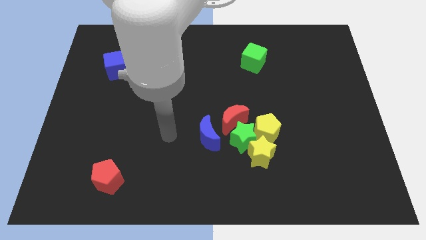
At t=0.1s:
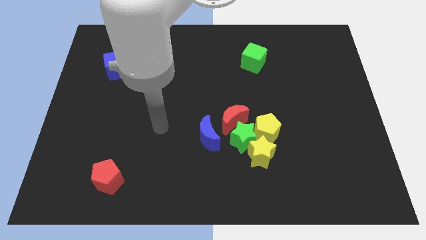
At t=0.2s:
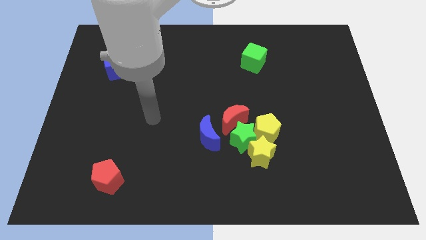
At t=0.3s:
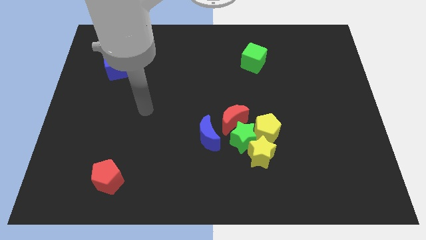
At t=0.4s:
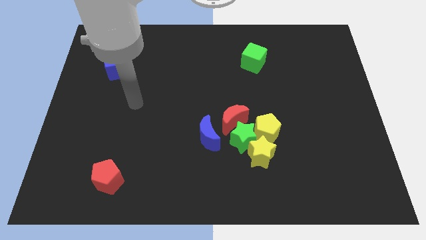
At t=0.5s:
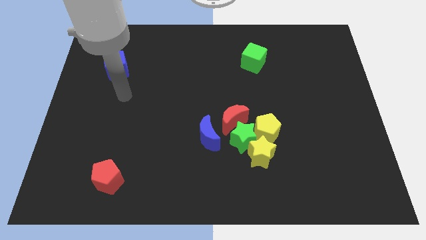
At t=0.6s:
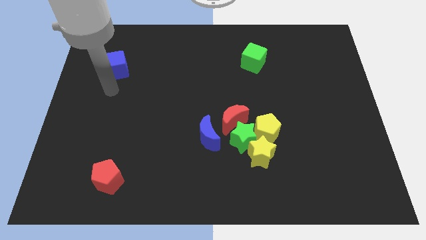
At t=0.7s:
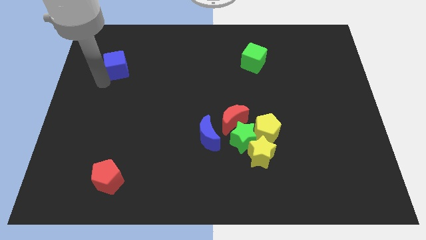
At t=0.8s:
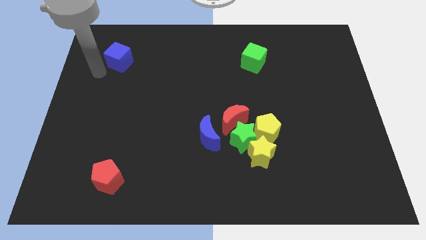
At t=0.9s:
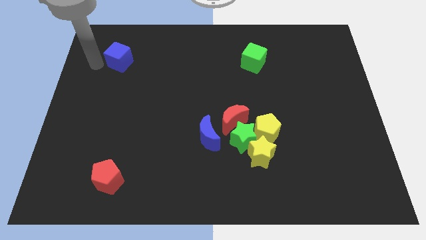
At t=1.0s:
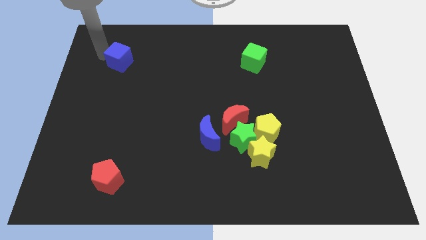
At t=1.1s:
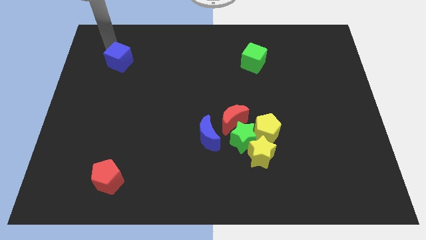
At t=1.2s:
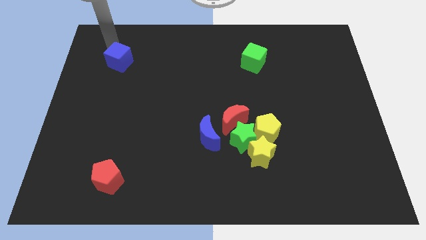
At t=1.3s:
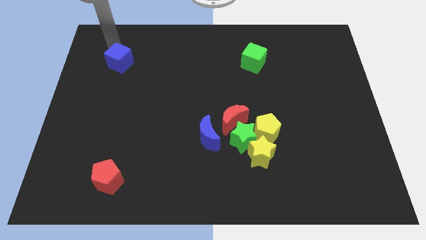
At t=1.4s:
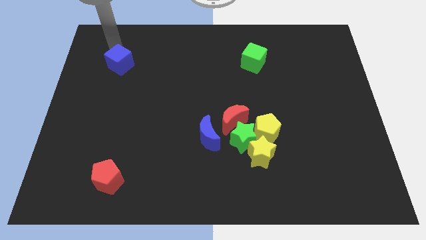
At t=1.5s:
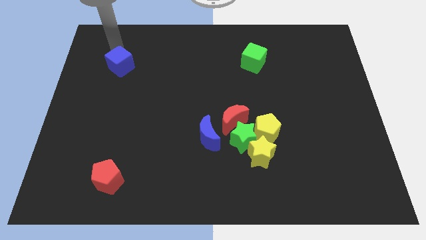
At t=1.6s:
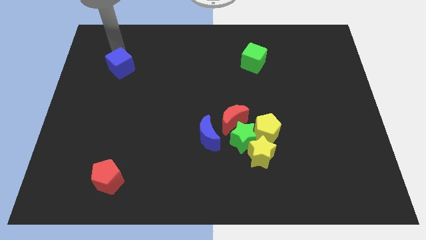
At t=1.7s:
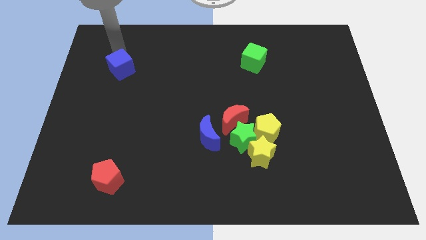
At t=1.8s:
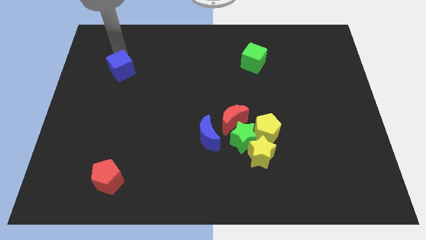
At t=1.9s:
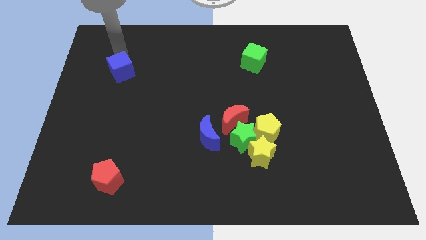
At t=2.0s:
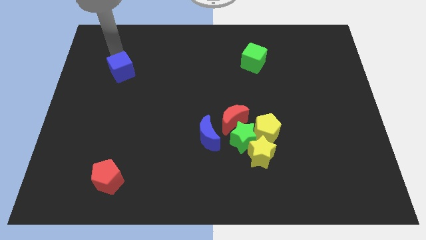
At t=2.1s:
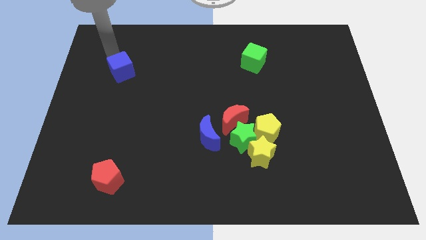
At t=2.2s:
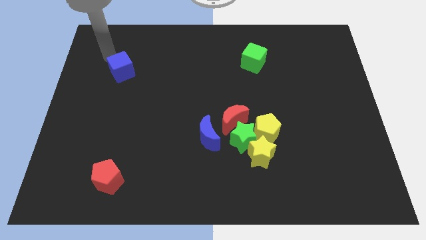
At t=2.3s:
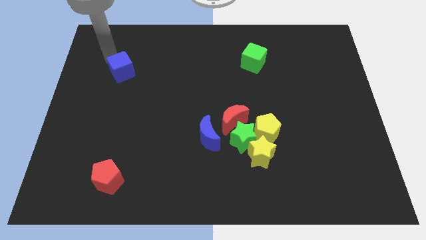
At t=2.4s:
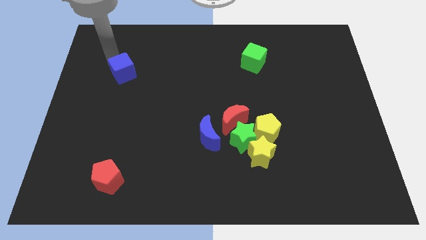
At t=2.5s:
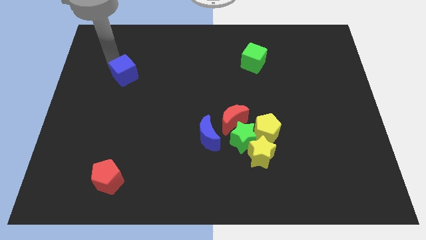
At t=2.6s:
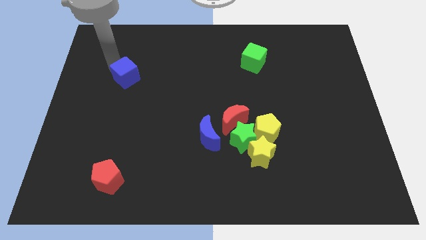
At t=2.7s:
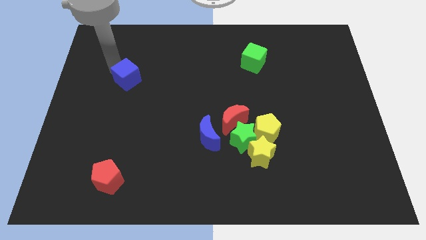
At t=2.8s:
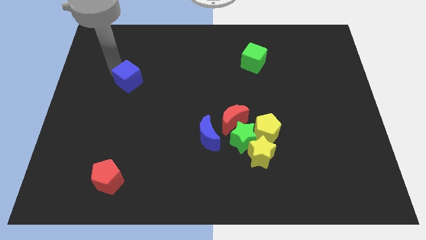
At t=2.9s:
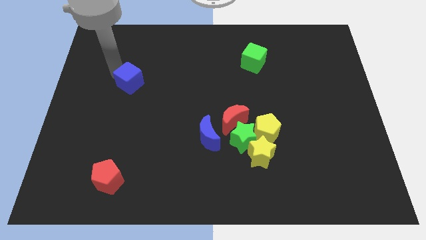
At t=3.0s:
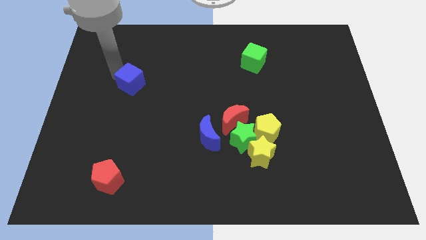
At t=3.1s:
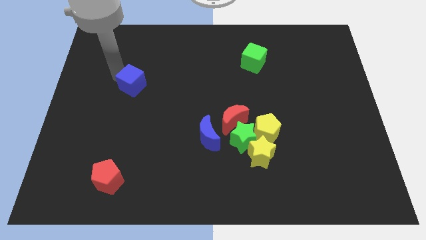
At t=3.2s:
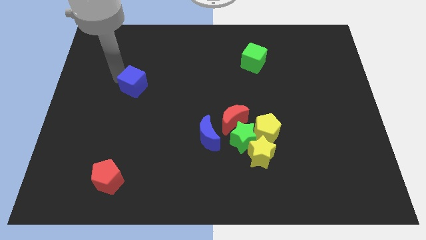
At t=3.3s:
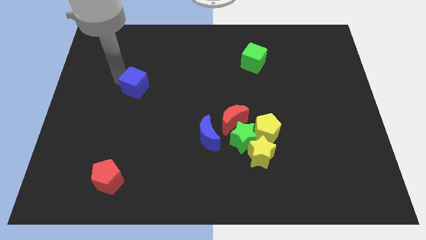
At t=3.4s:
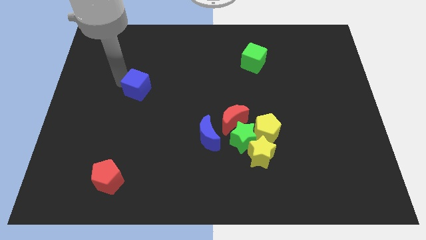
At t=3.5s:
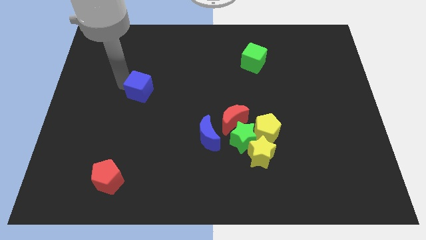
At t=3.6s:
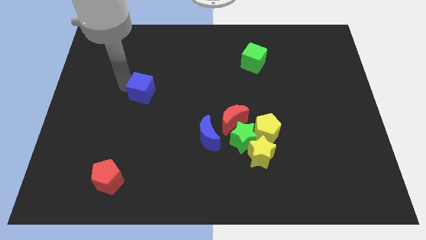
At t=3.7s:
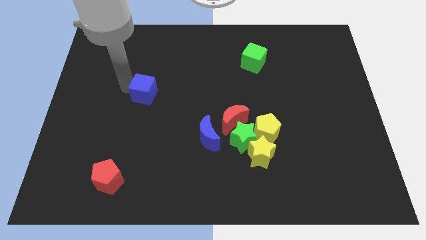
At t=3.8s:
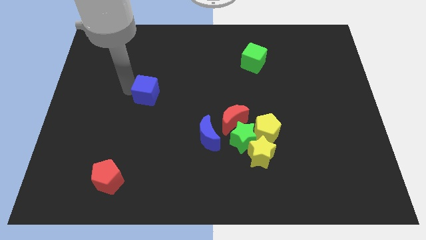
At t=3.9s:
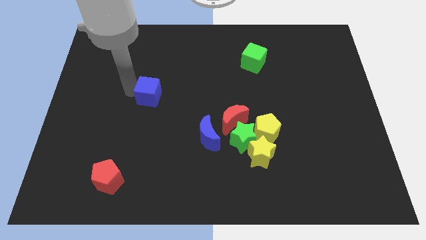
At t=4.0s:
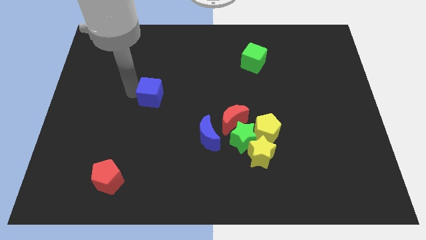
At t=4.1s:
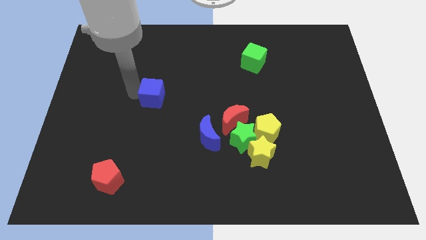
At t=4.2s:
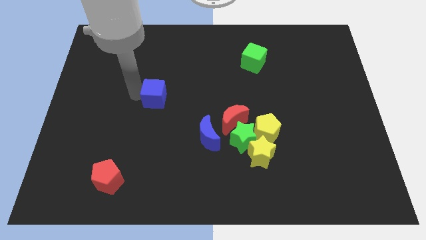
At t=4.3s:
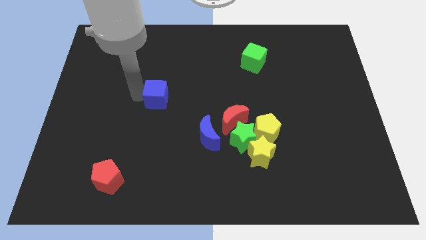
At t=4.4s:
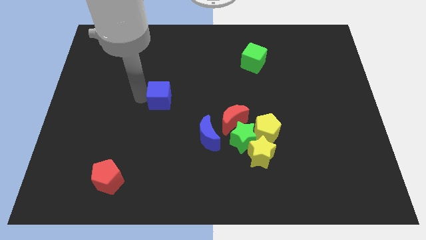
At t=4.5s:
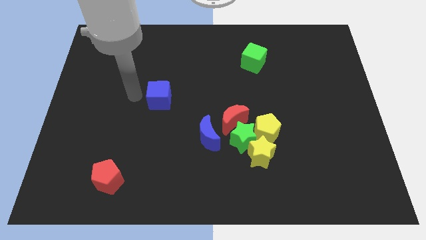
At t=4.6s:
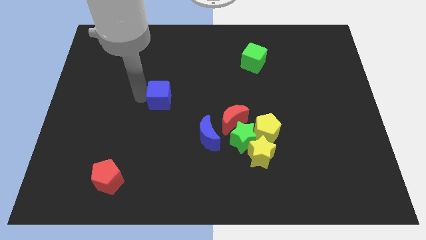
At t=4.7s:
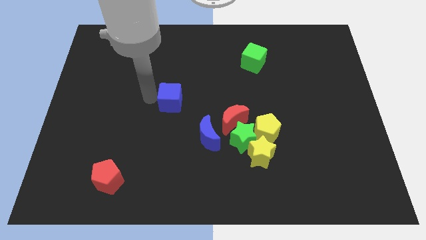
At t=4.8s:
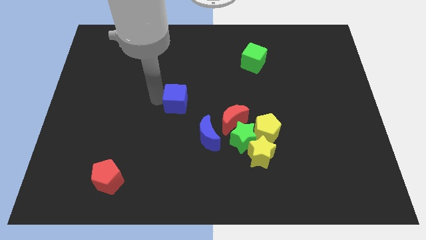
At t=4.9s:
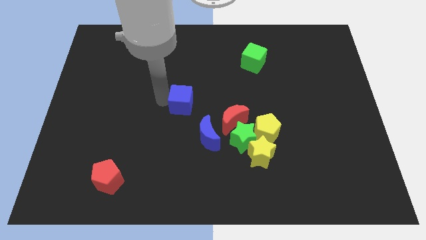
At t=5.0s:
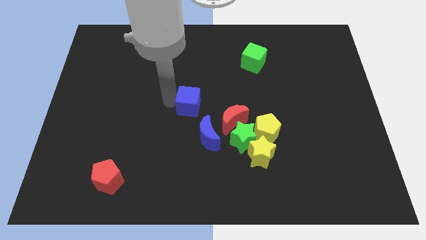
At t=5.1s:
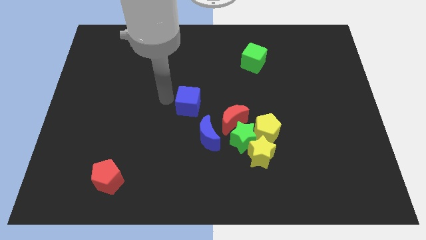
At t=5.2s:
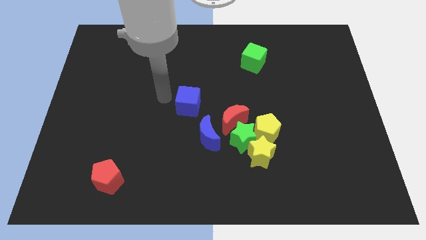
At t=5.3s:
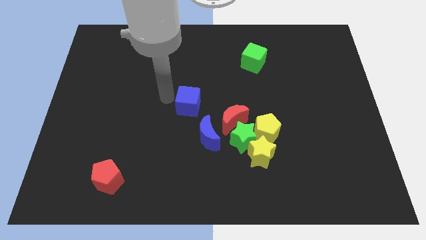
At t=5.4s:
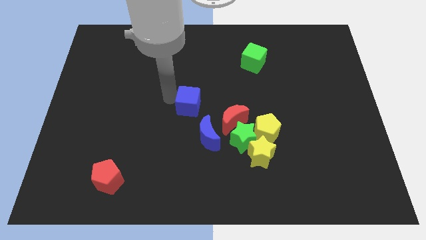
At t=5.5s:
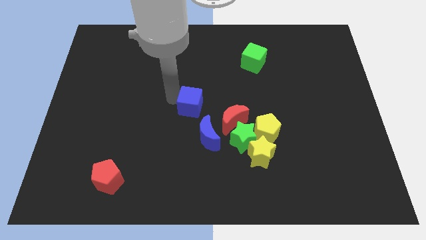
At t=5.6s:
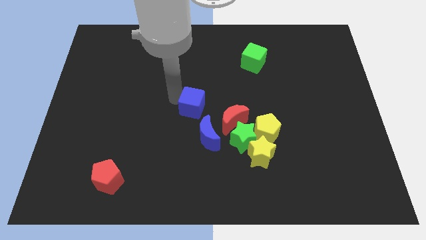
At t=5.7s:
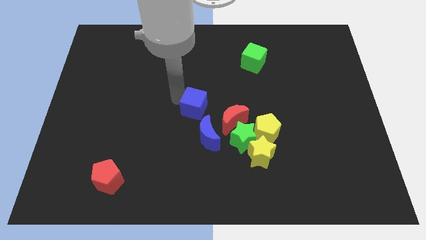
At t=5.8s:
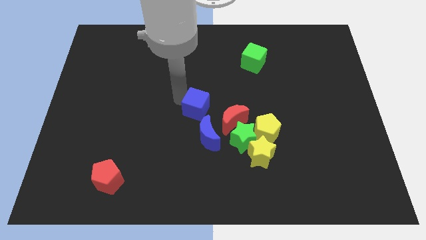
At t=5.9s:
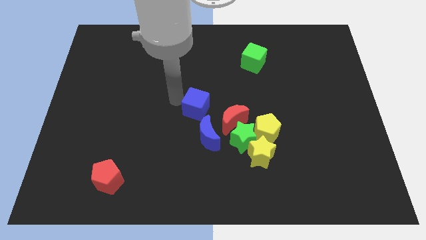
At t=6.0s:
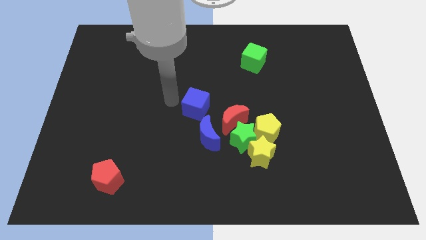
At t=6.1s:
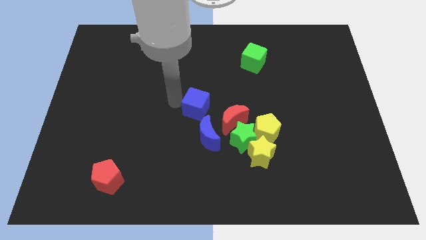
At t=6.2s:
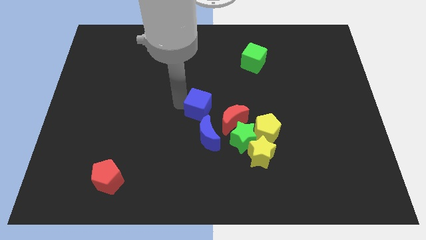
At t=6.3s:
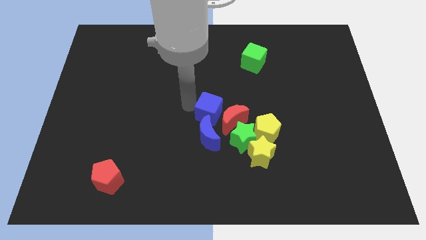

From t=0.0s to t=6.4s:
slide the blue cube next to the red moon

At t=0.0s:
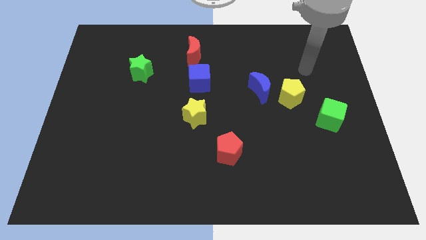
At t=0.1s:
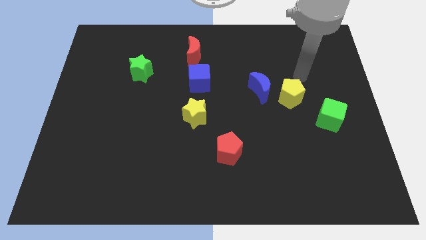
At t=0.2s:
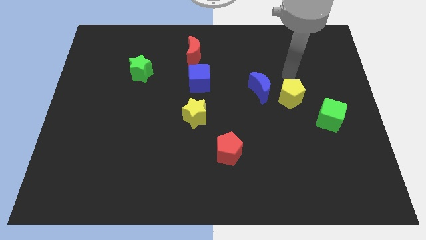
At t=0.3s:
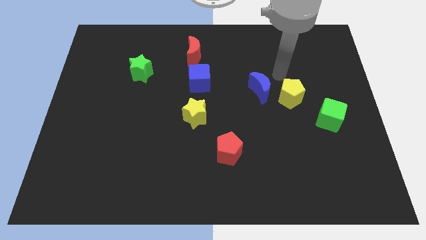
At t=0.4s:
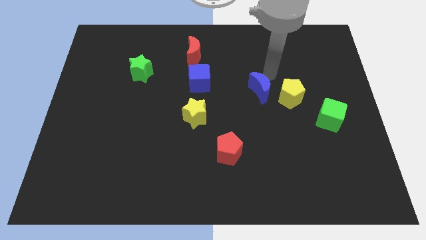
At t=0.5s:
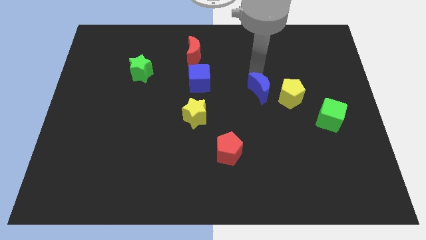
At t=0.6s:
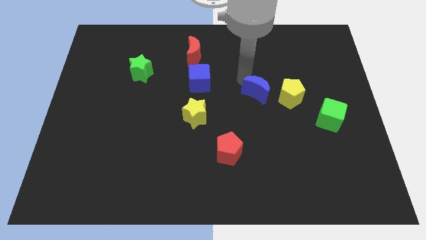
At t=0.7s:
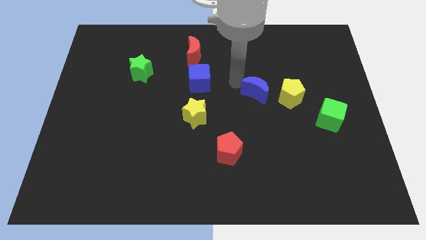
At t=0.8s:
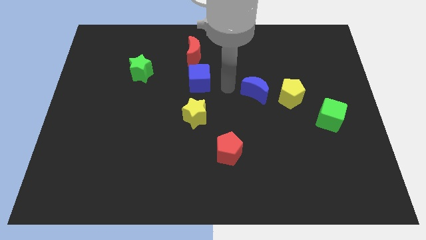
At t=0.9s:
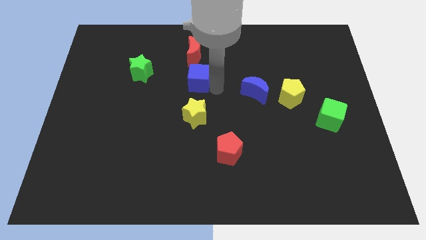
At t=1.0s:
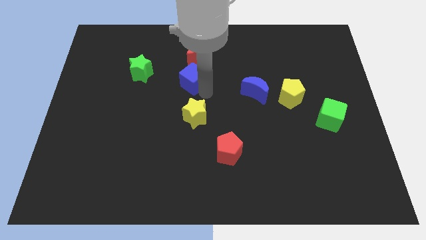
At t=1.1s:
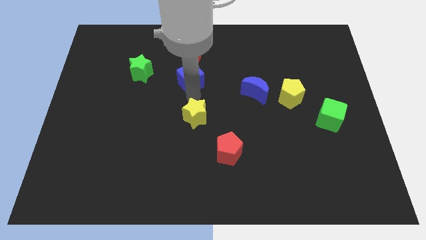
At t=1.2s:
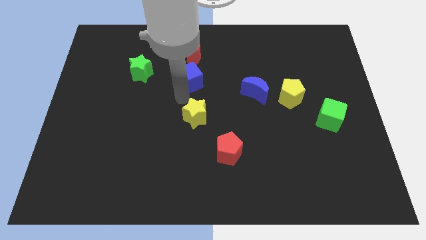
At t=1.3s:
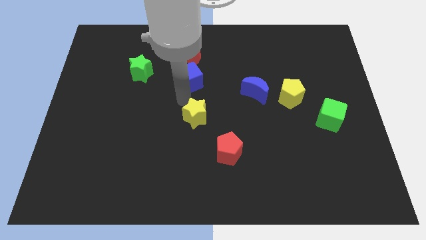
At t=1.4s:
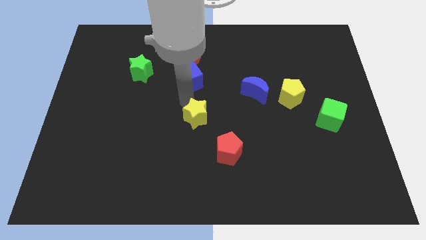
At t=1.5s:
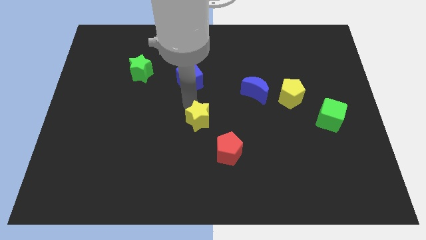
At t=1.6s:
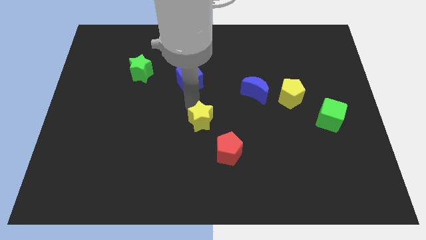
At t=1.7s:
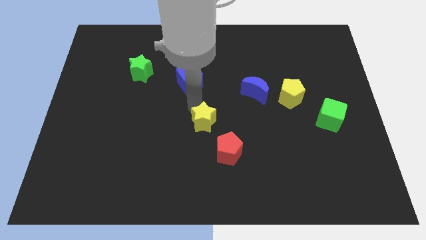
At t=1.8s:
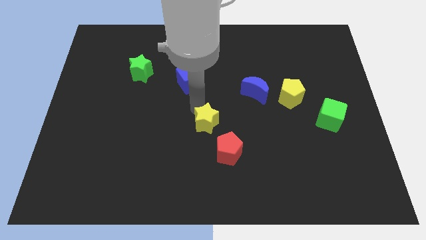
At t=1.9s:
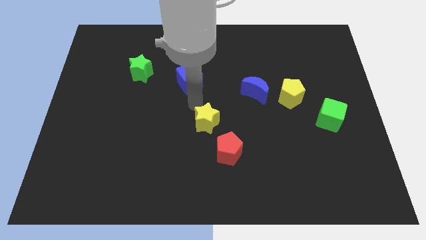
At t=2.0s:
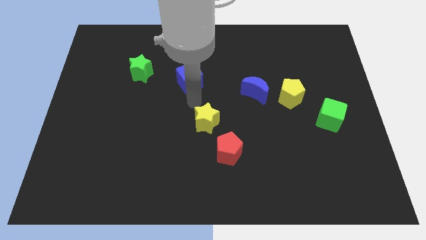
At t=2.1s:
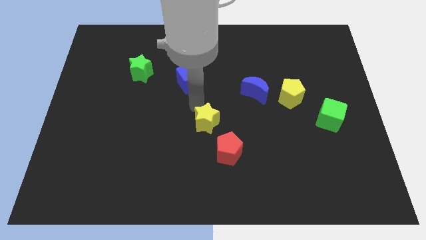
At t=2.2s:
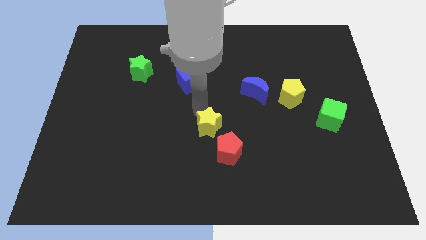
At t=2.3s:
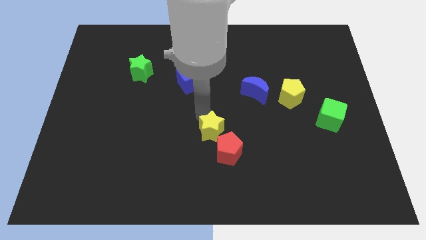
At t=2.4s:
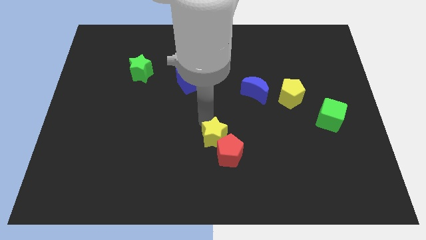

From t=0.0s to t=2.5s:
put the yellow star to the red pentagon
